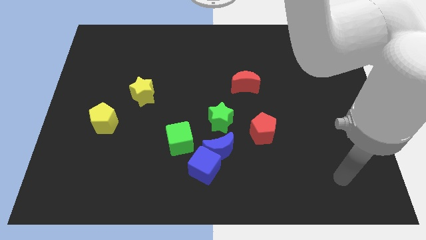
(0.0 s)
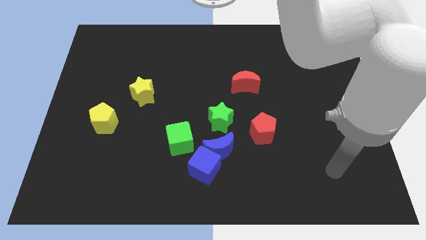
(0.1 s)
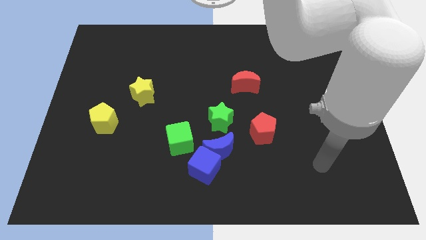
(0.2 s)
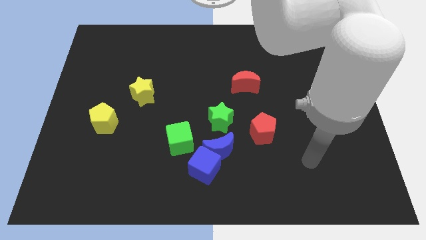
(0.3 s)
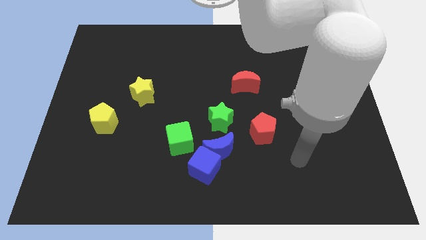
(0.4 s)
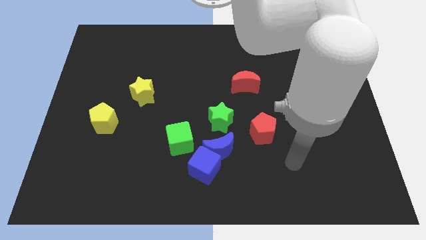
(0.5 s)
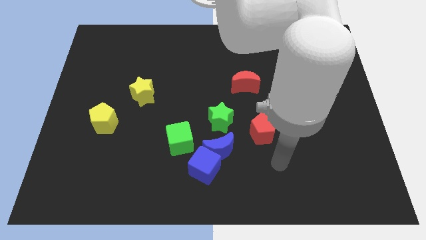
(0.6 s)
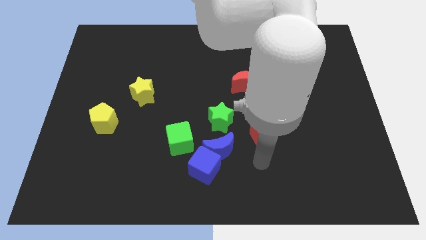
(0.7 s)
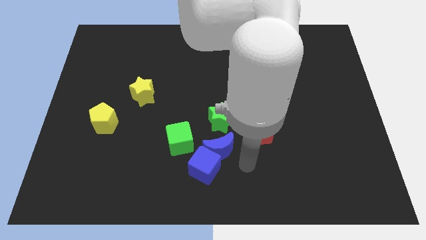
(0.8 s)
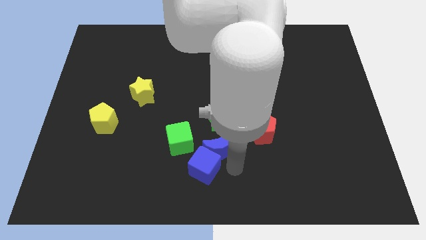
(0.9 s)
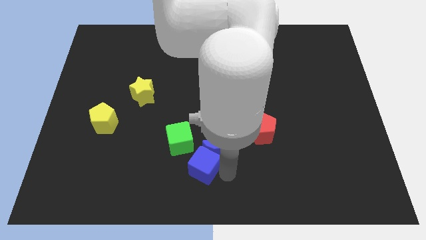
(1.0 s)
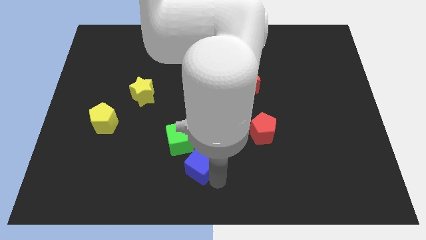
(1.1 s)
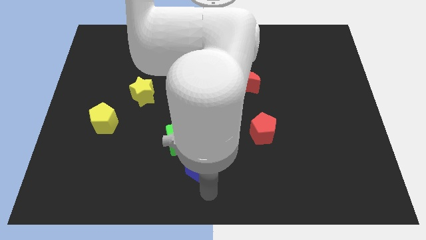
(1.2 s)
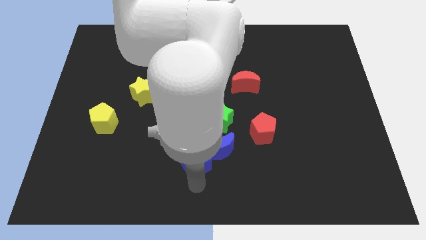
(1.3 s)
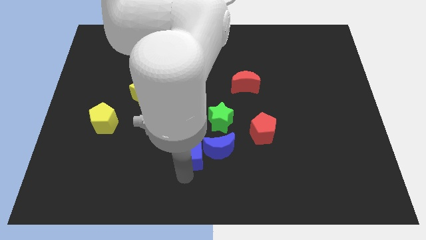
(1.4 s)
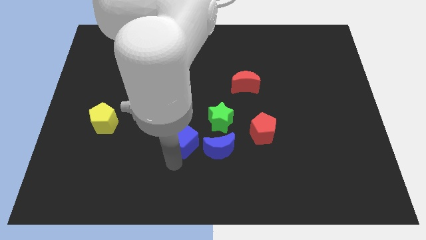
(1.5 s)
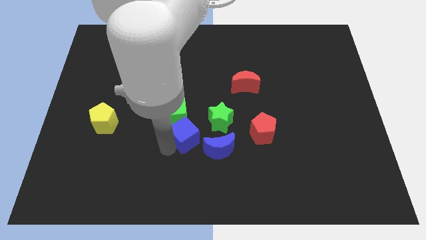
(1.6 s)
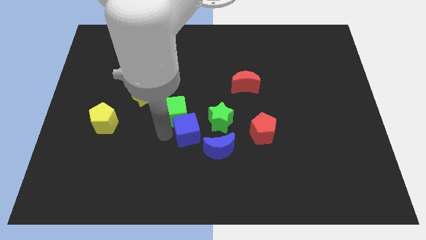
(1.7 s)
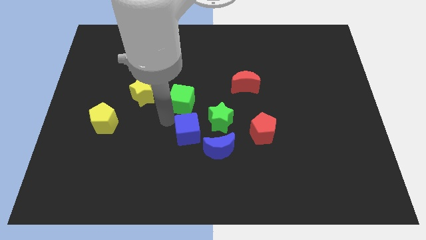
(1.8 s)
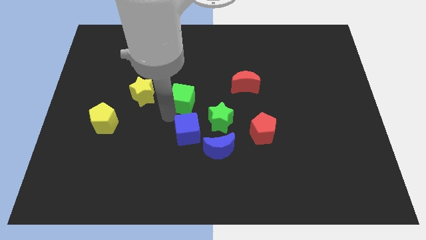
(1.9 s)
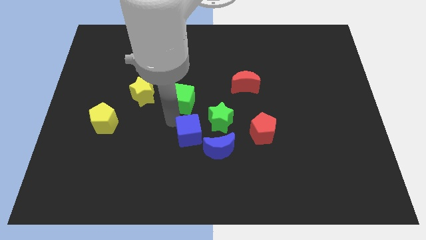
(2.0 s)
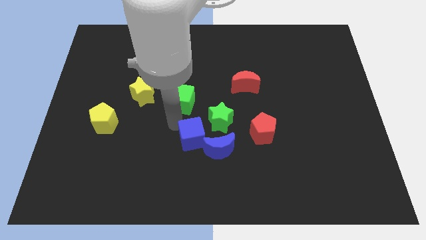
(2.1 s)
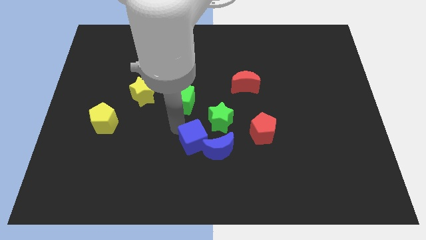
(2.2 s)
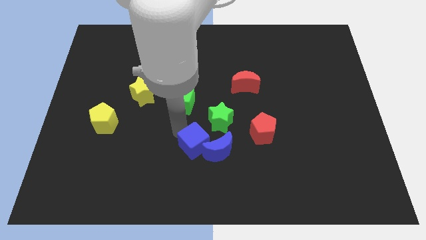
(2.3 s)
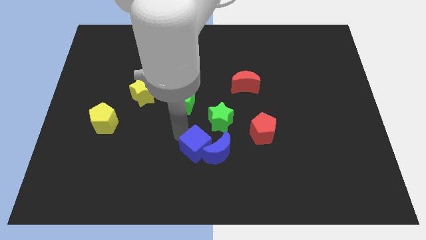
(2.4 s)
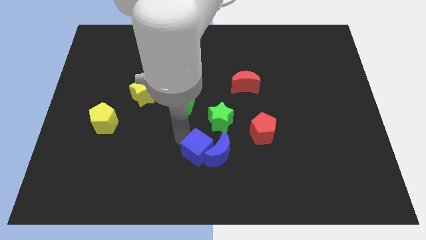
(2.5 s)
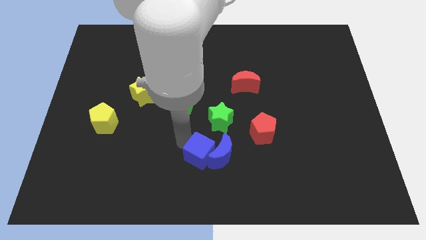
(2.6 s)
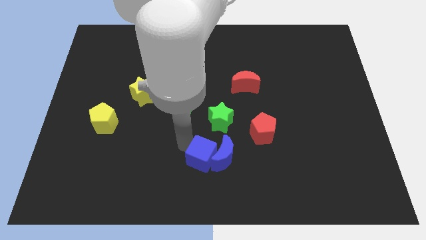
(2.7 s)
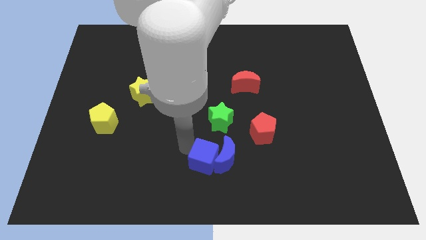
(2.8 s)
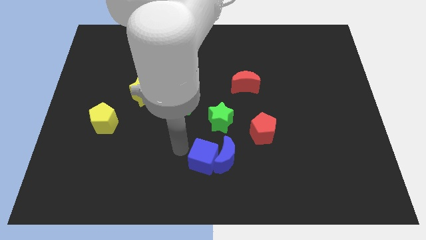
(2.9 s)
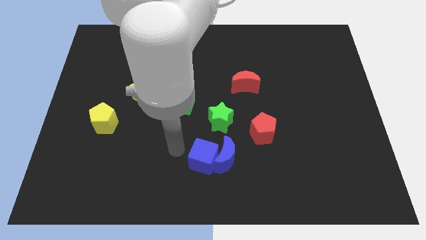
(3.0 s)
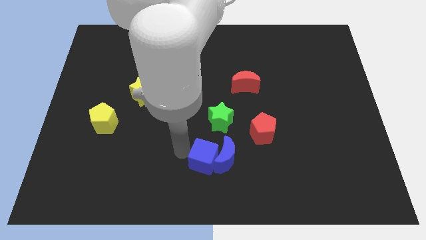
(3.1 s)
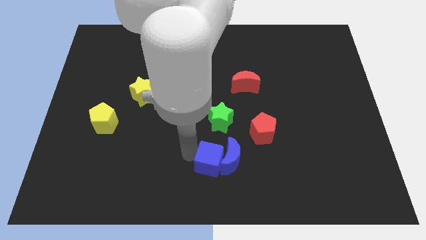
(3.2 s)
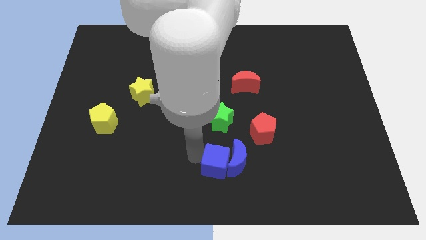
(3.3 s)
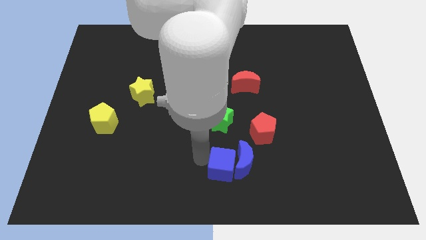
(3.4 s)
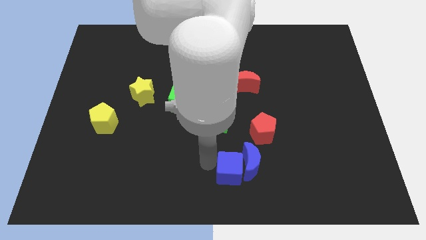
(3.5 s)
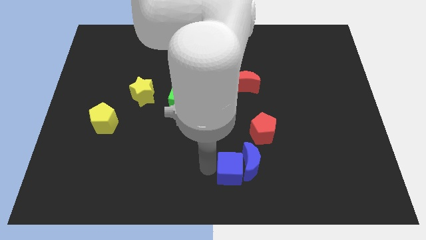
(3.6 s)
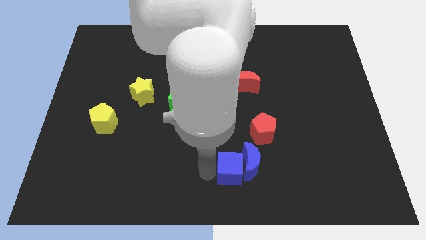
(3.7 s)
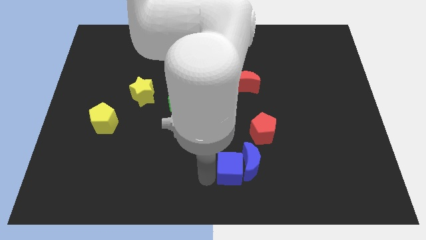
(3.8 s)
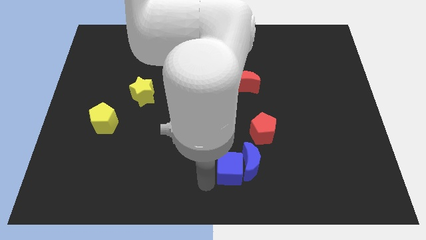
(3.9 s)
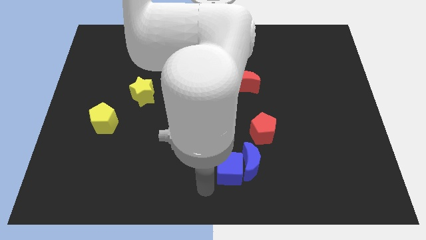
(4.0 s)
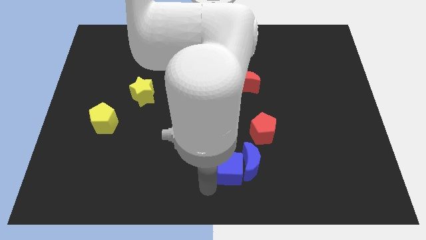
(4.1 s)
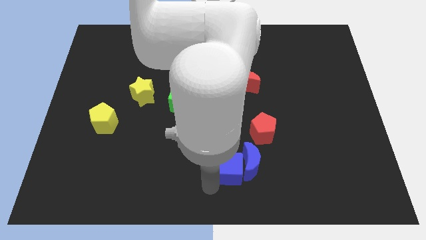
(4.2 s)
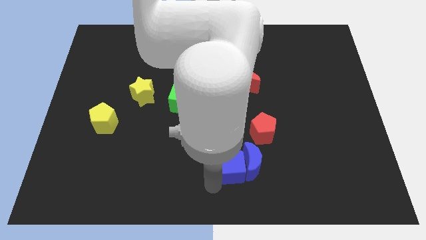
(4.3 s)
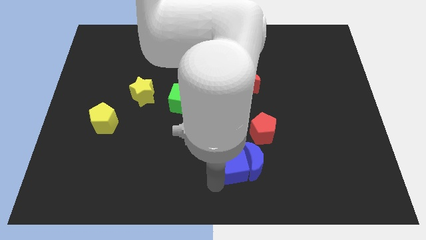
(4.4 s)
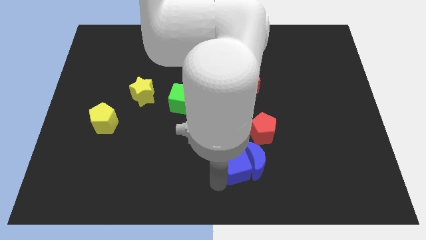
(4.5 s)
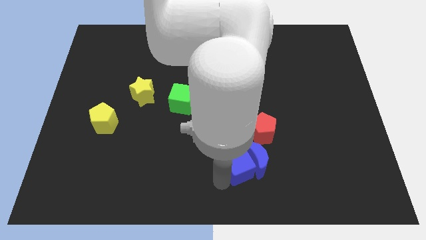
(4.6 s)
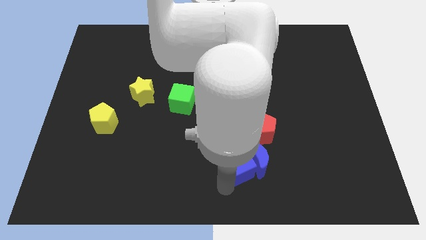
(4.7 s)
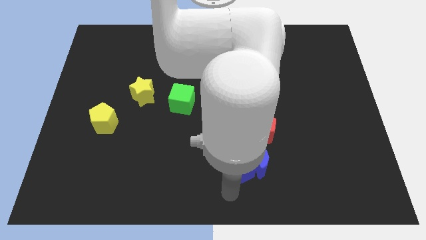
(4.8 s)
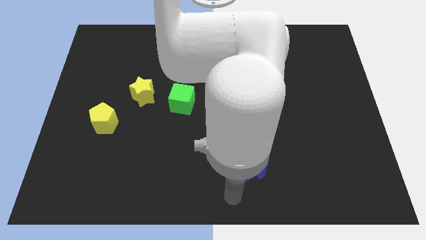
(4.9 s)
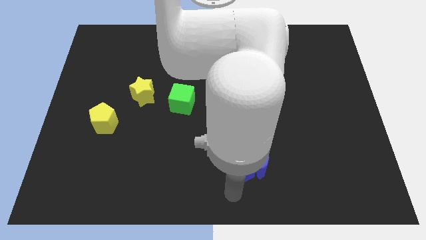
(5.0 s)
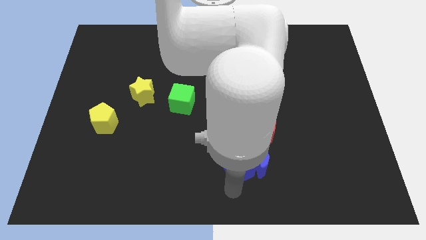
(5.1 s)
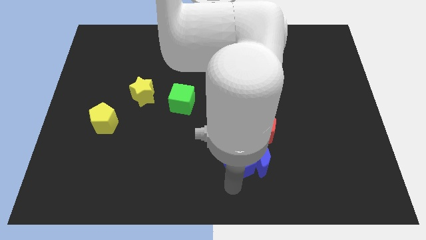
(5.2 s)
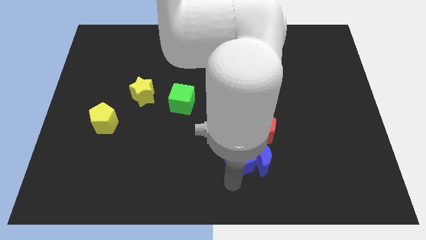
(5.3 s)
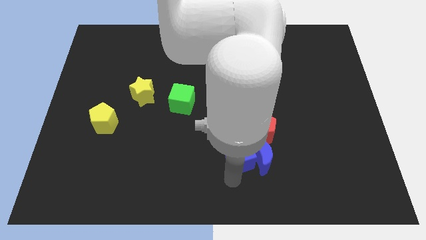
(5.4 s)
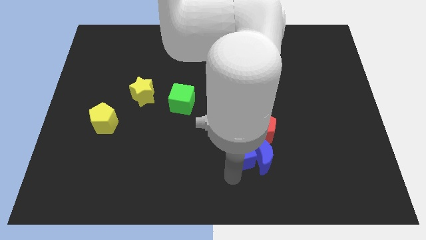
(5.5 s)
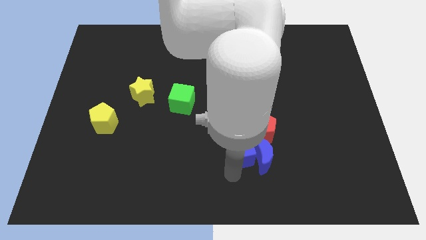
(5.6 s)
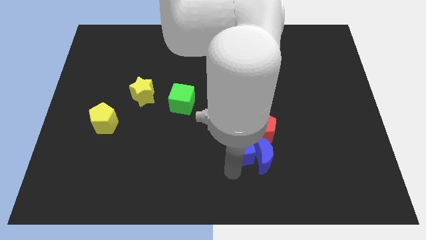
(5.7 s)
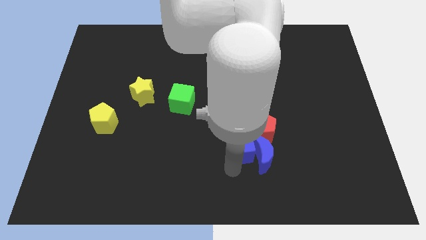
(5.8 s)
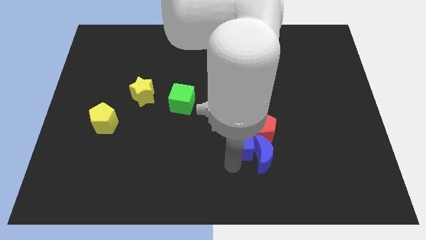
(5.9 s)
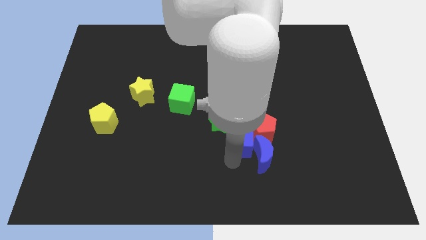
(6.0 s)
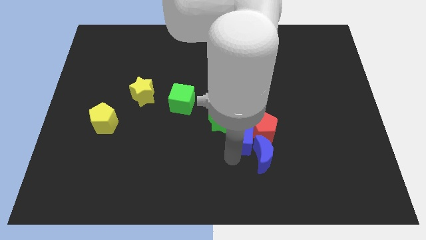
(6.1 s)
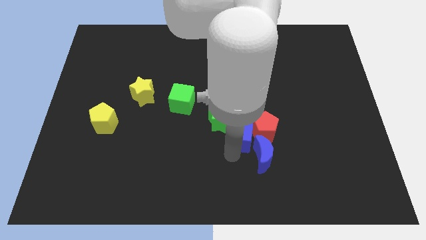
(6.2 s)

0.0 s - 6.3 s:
move the blue cube to the right side of the green star

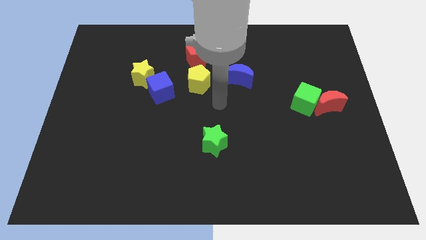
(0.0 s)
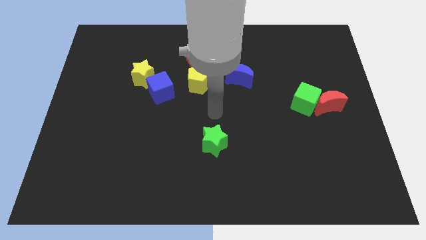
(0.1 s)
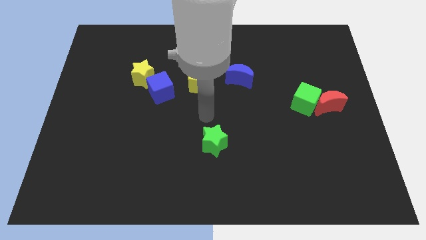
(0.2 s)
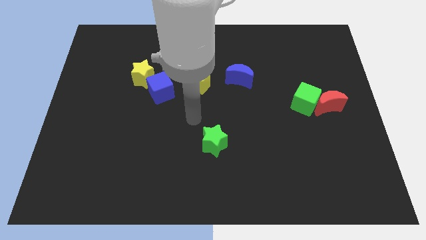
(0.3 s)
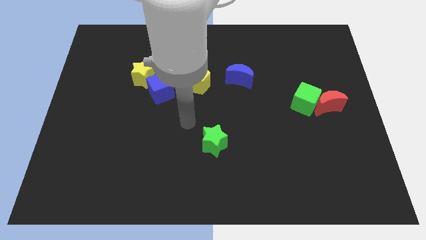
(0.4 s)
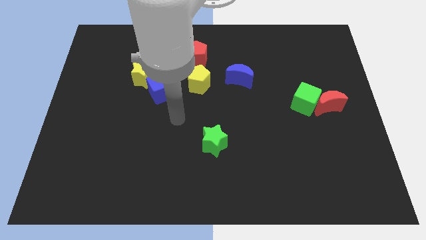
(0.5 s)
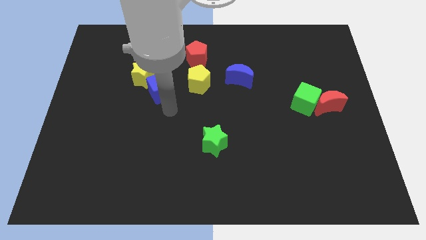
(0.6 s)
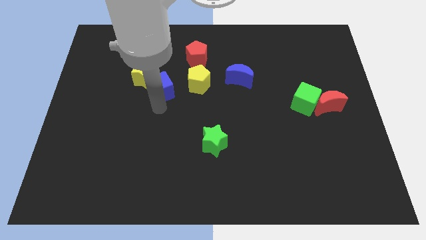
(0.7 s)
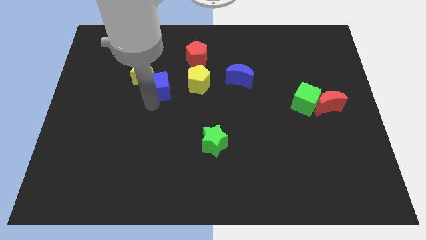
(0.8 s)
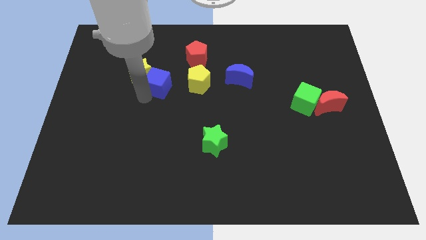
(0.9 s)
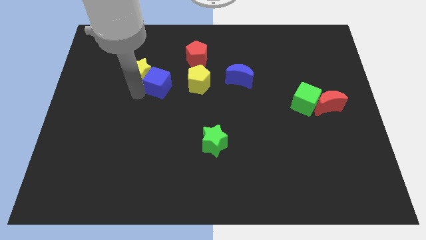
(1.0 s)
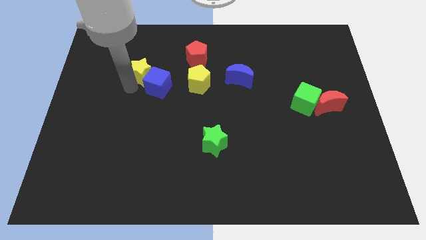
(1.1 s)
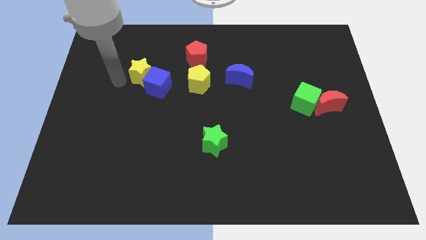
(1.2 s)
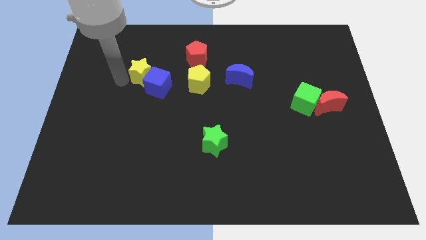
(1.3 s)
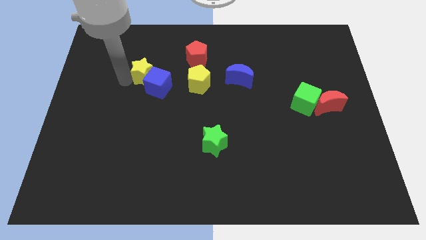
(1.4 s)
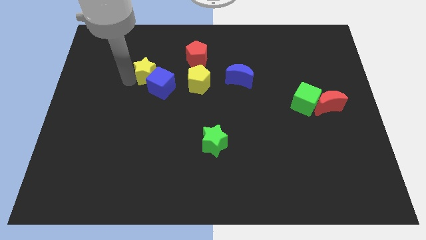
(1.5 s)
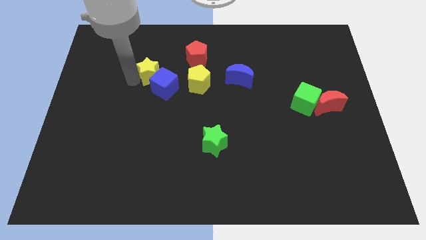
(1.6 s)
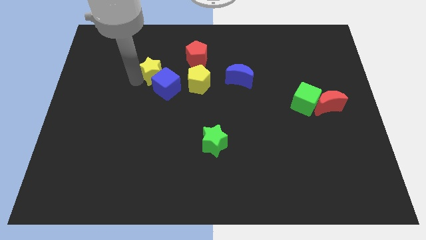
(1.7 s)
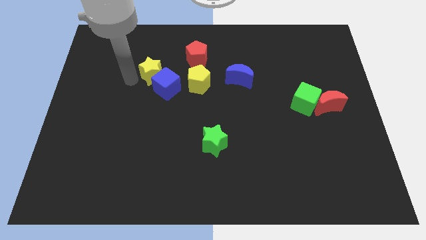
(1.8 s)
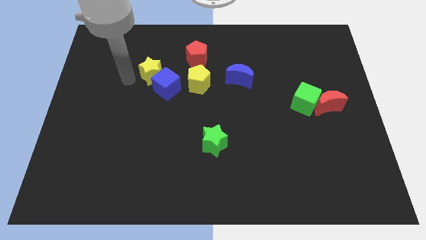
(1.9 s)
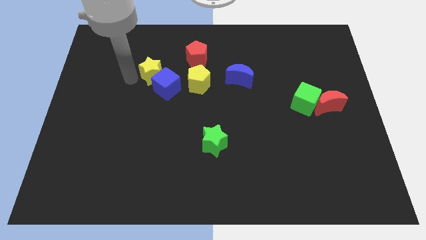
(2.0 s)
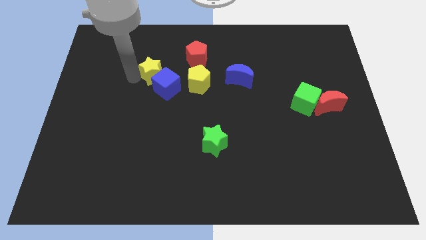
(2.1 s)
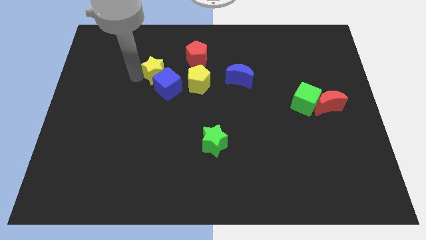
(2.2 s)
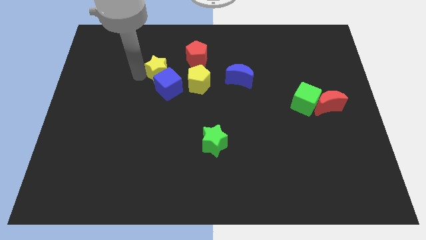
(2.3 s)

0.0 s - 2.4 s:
move the yellow star to the top left side of the yellow pentagon
